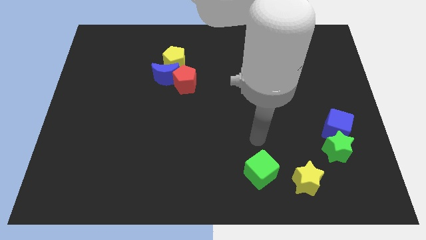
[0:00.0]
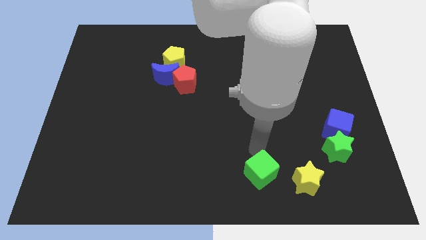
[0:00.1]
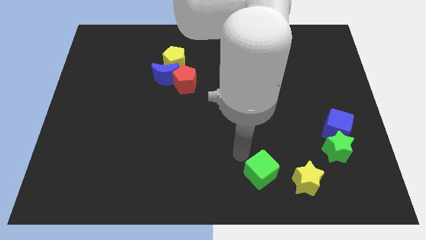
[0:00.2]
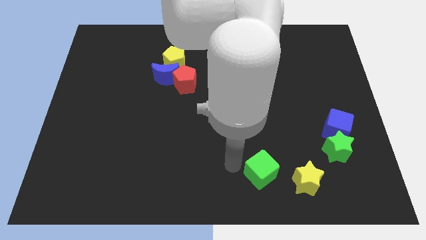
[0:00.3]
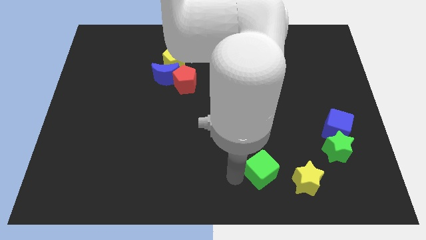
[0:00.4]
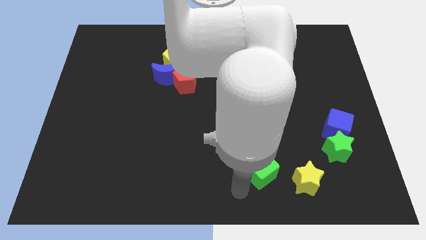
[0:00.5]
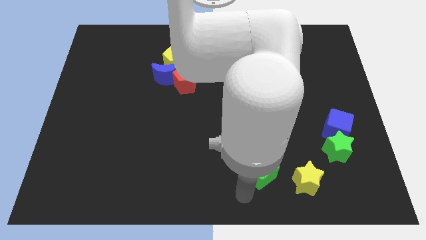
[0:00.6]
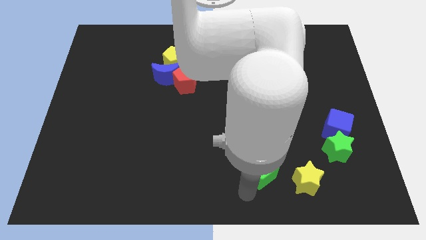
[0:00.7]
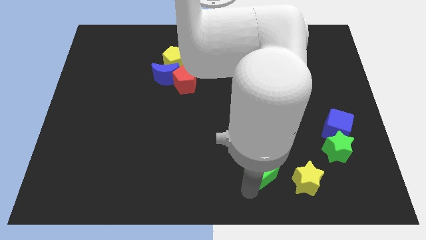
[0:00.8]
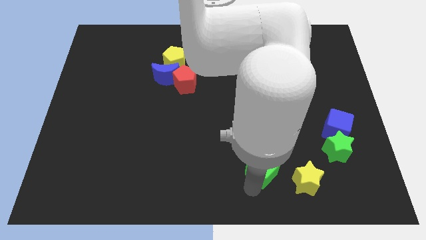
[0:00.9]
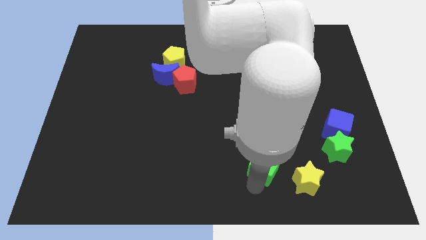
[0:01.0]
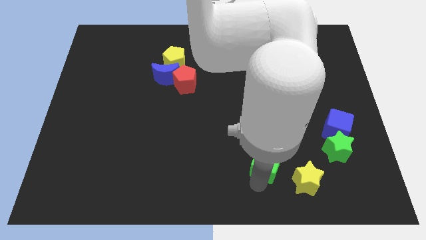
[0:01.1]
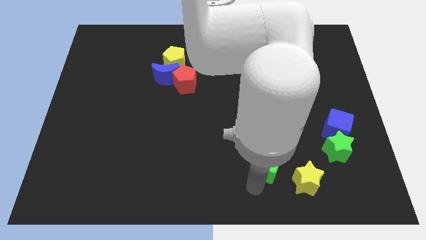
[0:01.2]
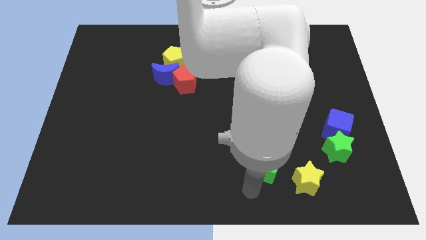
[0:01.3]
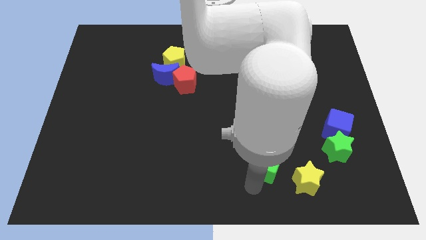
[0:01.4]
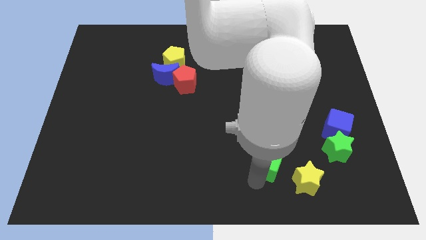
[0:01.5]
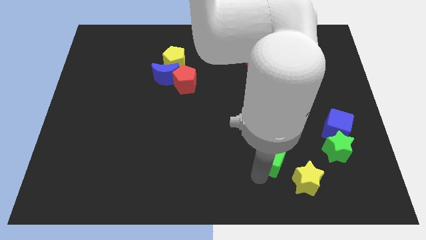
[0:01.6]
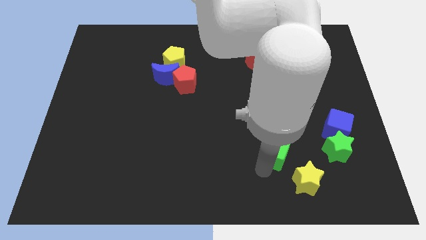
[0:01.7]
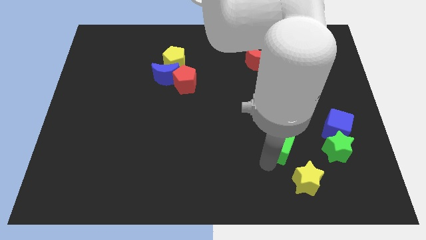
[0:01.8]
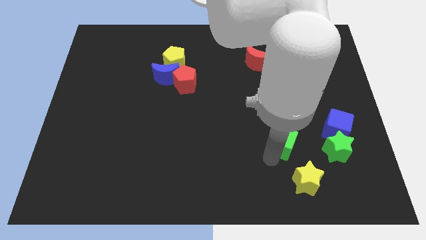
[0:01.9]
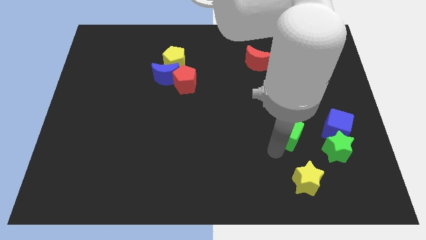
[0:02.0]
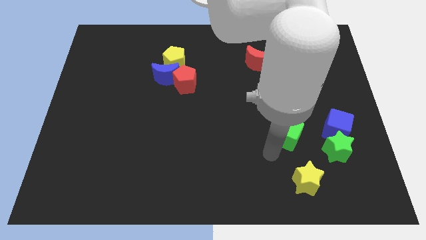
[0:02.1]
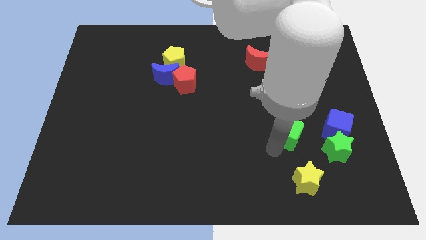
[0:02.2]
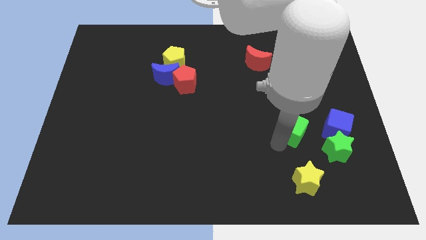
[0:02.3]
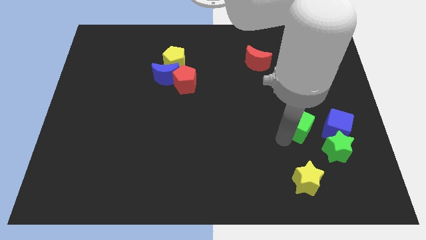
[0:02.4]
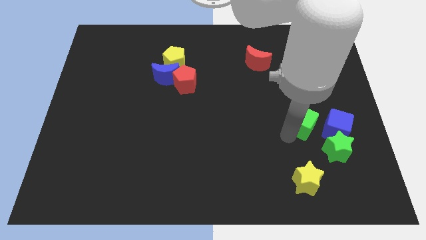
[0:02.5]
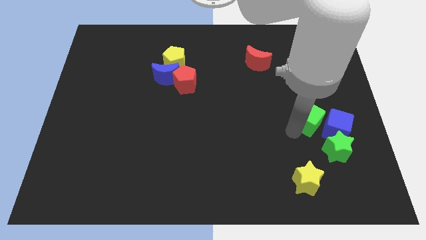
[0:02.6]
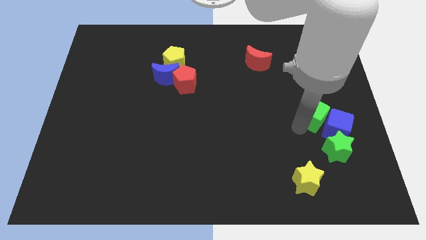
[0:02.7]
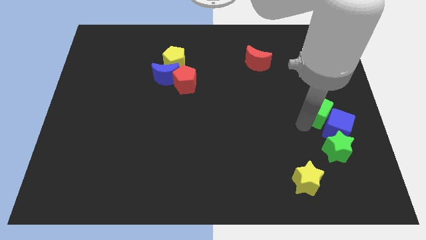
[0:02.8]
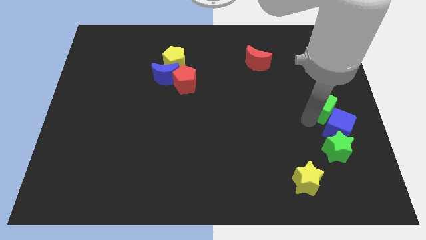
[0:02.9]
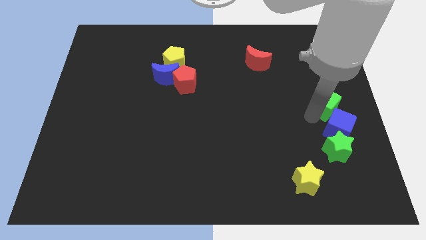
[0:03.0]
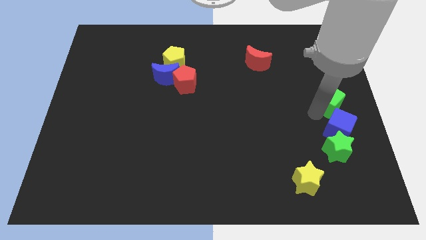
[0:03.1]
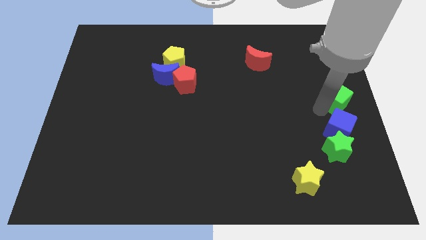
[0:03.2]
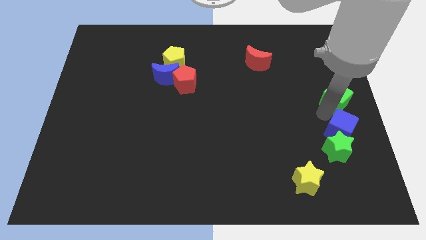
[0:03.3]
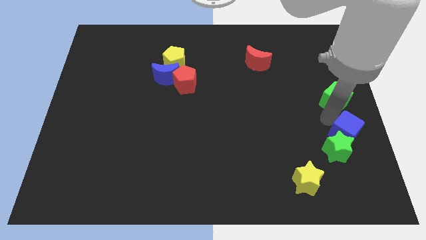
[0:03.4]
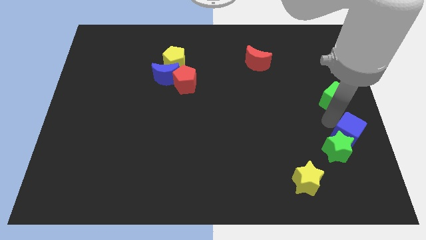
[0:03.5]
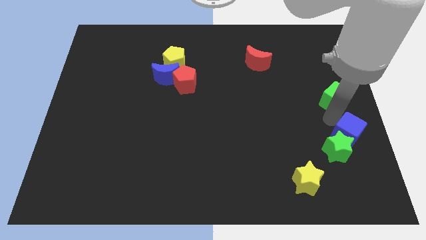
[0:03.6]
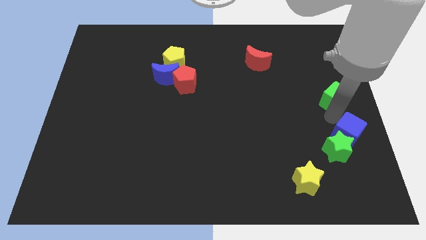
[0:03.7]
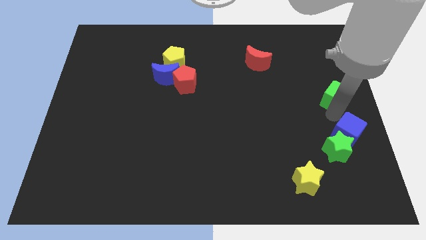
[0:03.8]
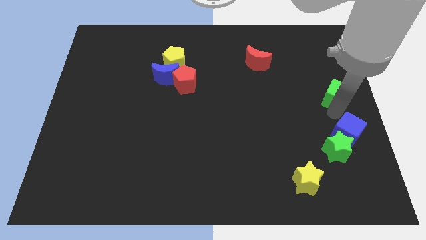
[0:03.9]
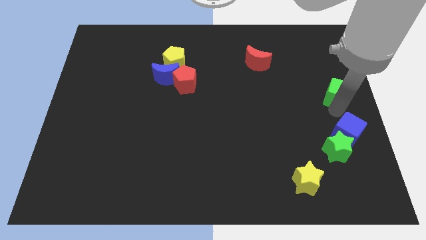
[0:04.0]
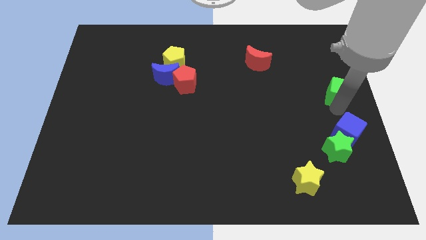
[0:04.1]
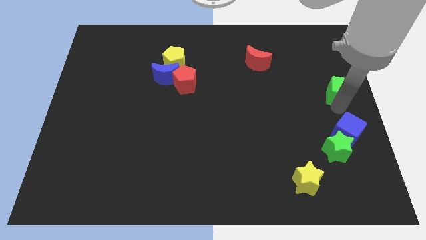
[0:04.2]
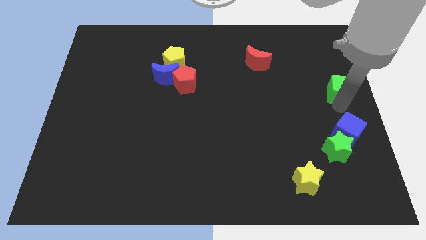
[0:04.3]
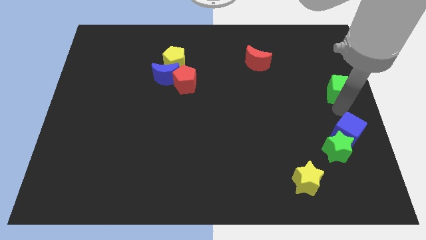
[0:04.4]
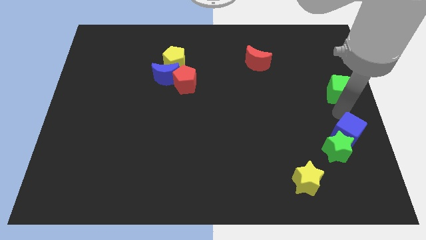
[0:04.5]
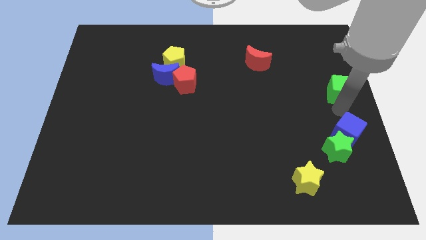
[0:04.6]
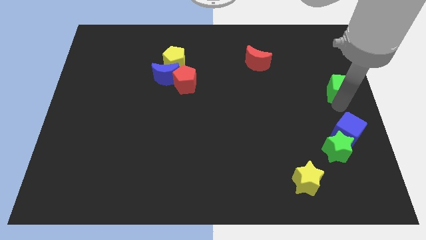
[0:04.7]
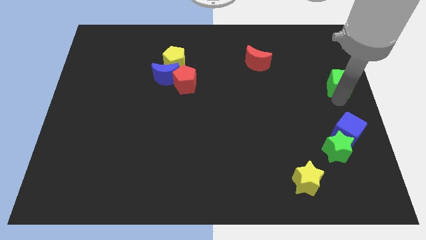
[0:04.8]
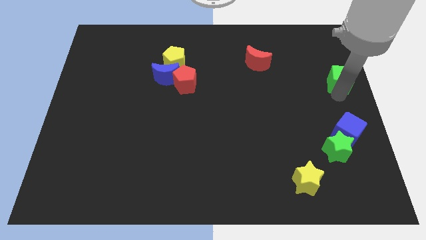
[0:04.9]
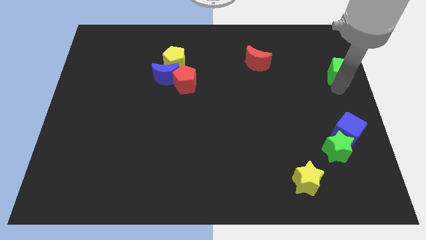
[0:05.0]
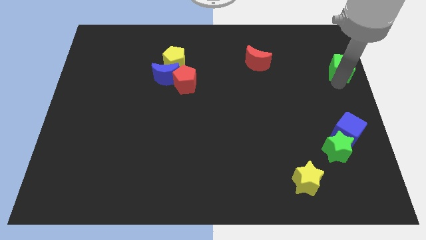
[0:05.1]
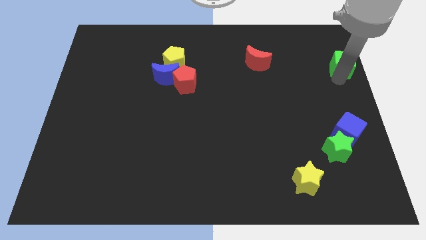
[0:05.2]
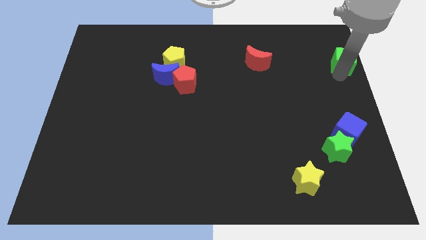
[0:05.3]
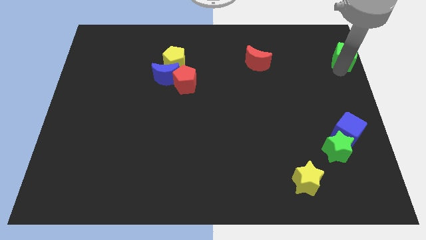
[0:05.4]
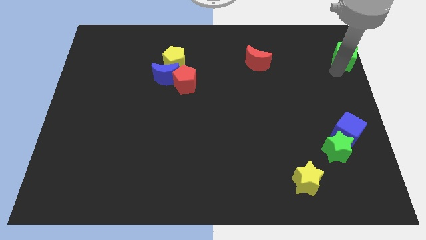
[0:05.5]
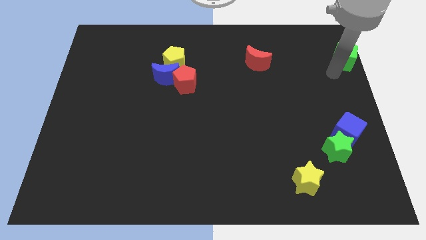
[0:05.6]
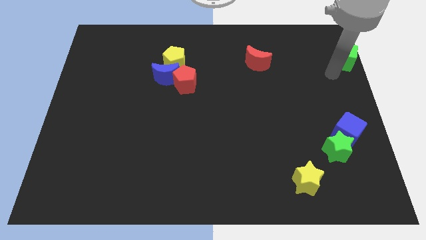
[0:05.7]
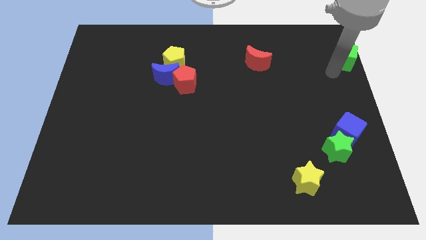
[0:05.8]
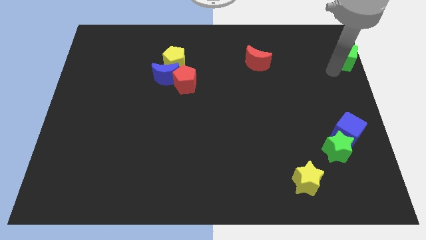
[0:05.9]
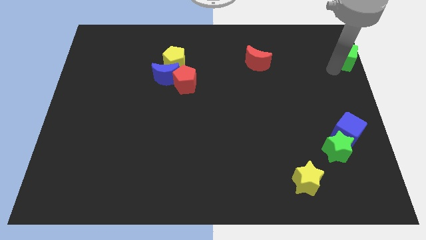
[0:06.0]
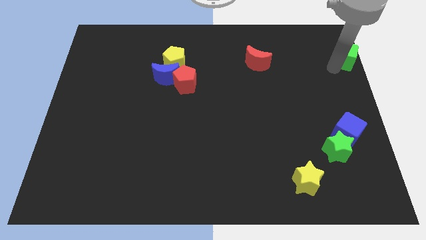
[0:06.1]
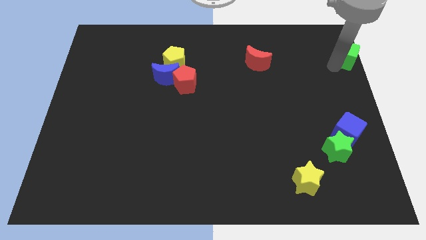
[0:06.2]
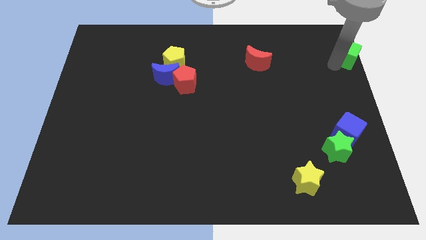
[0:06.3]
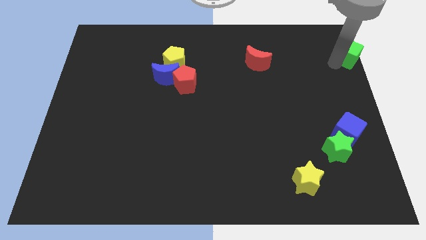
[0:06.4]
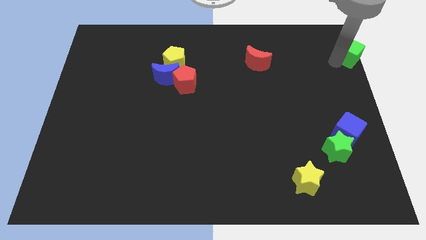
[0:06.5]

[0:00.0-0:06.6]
slide the green cube to the top right corner

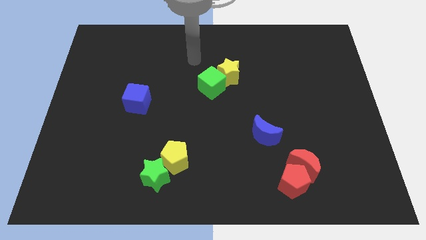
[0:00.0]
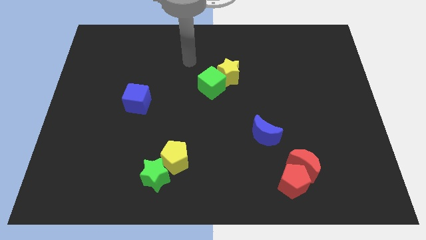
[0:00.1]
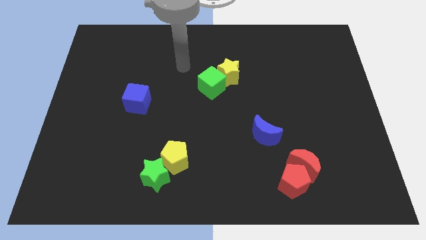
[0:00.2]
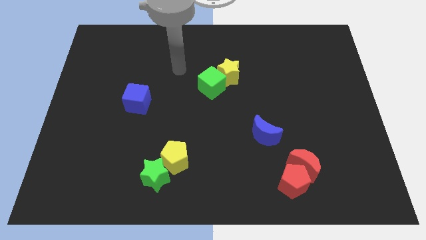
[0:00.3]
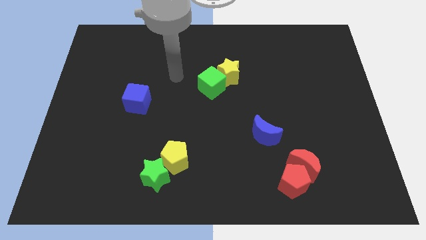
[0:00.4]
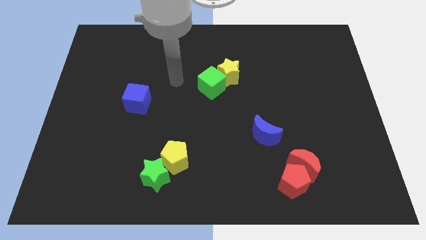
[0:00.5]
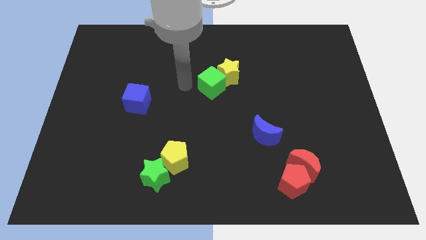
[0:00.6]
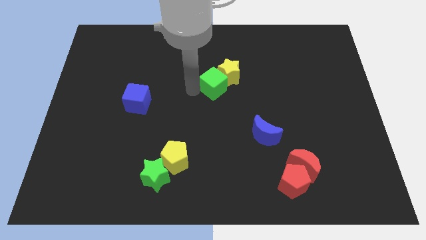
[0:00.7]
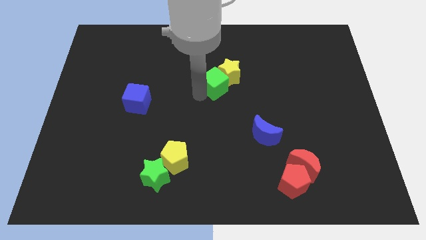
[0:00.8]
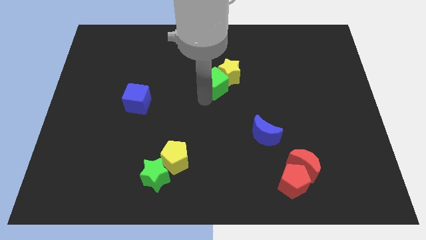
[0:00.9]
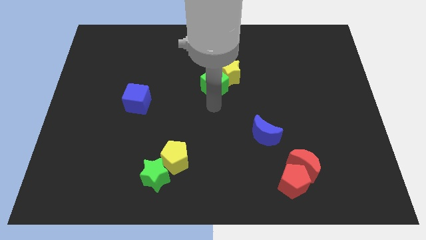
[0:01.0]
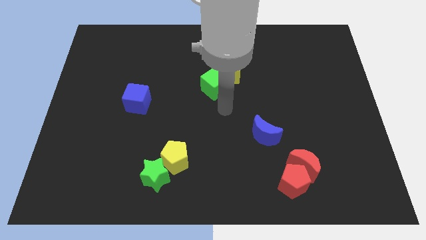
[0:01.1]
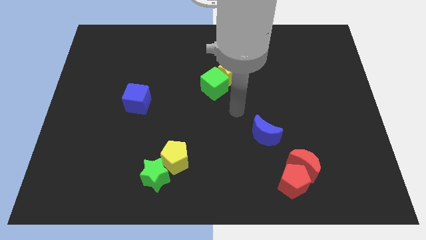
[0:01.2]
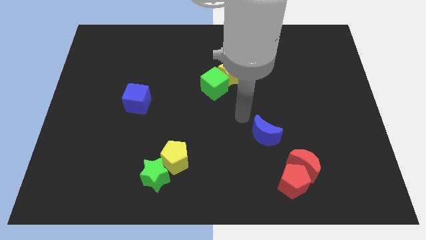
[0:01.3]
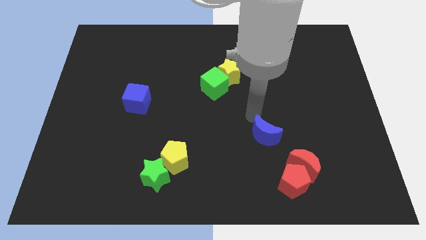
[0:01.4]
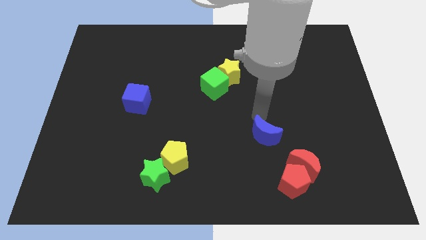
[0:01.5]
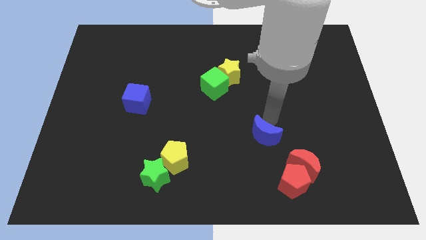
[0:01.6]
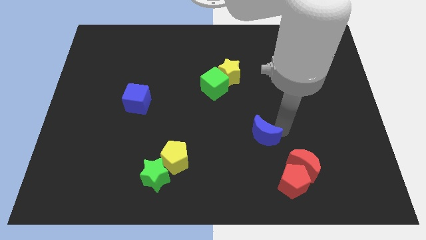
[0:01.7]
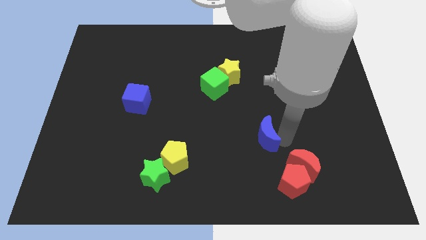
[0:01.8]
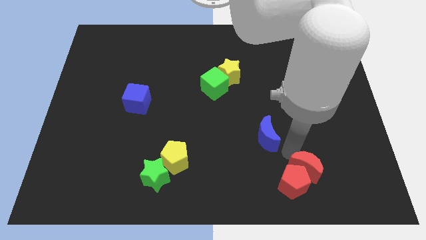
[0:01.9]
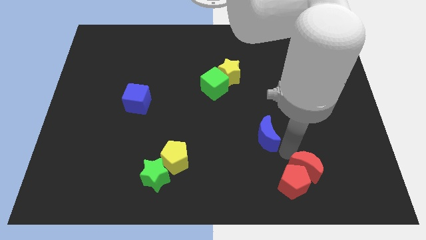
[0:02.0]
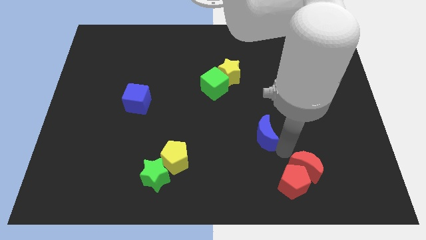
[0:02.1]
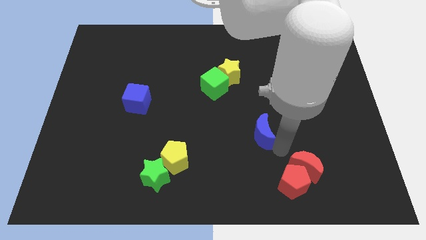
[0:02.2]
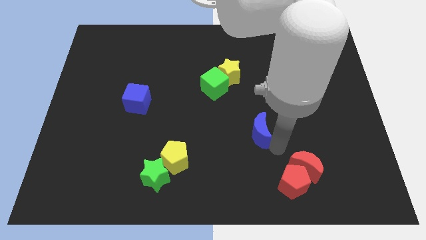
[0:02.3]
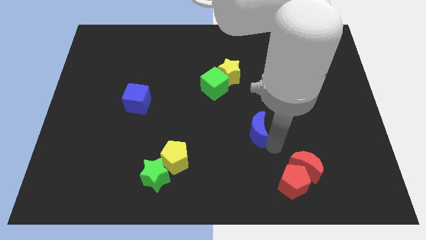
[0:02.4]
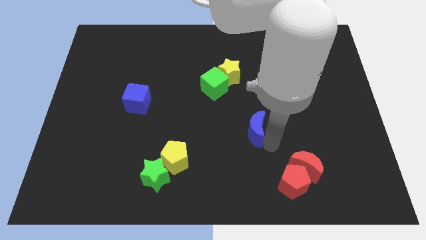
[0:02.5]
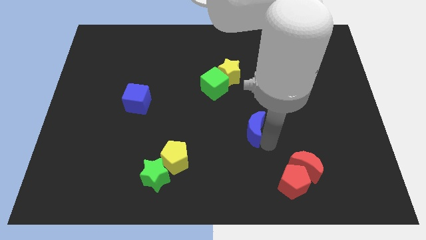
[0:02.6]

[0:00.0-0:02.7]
slide the blue moon to the center of the board
